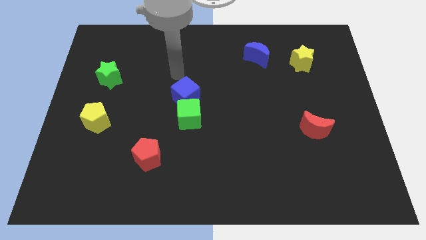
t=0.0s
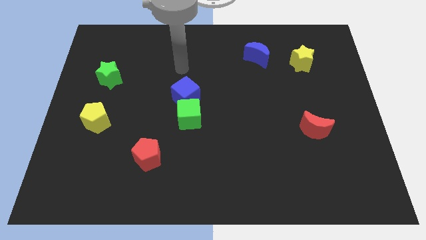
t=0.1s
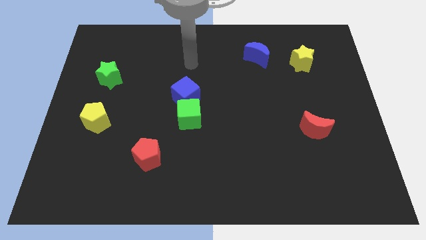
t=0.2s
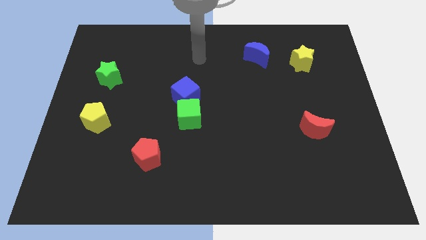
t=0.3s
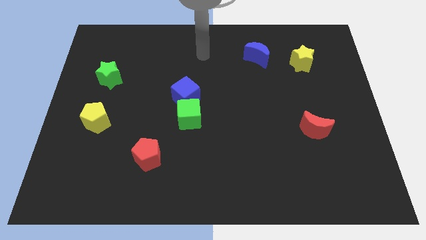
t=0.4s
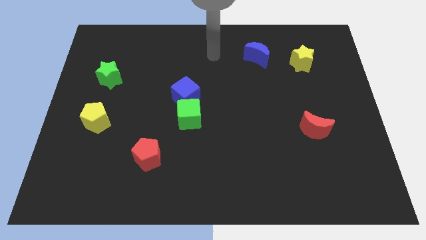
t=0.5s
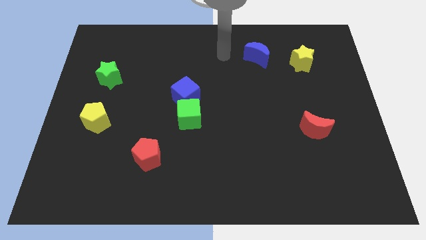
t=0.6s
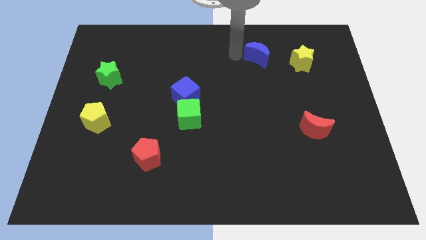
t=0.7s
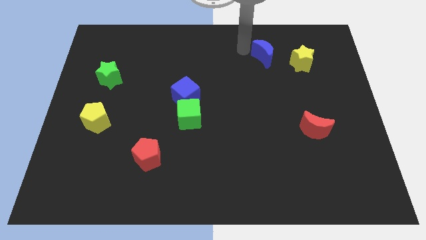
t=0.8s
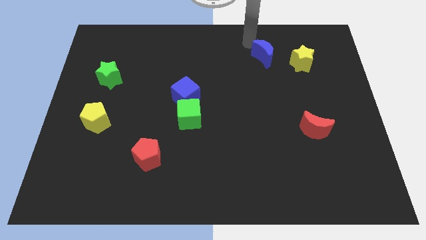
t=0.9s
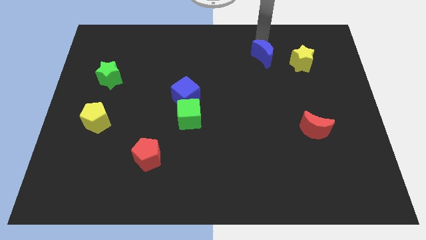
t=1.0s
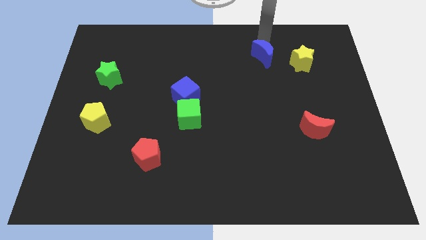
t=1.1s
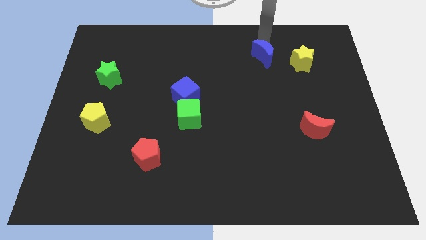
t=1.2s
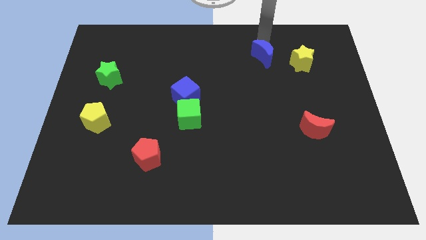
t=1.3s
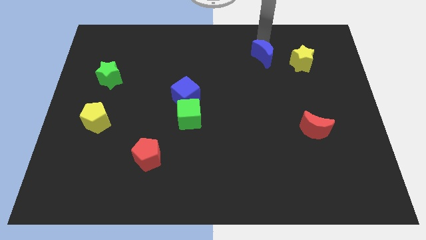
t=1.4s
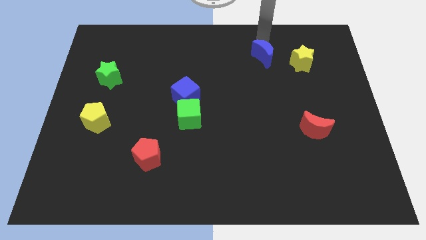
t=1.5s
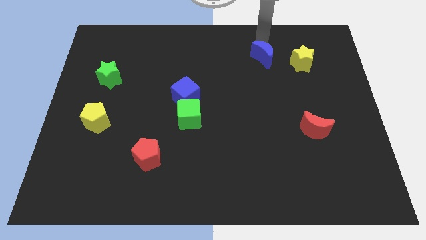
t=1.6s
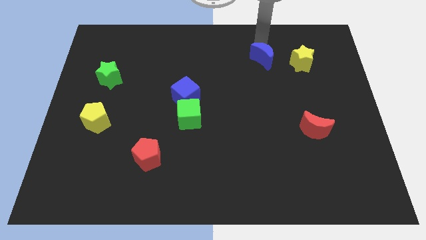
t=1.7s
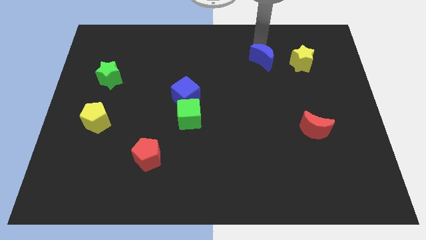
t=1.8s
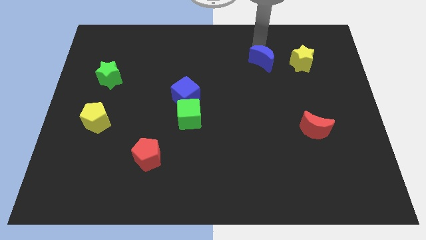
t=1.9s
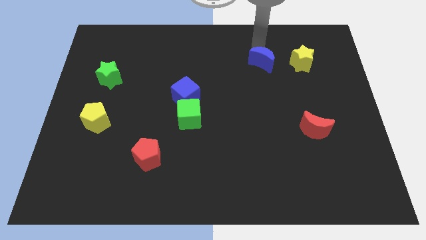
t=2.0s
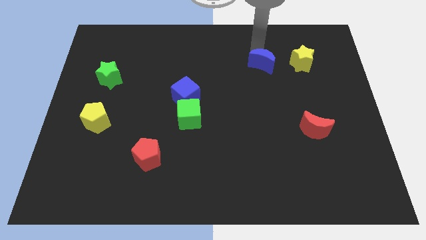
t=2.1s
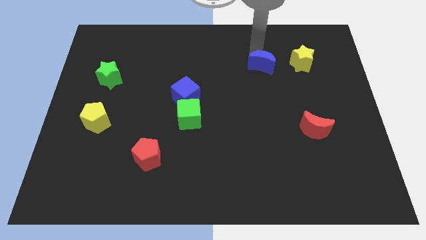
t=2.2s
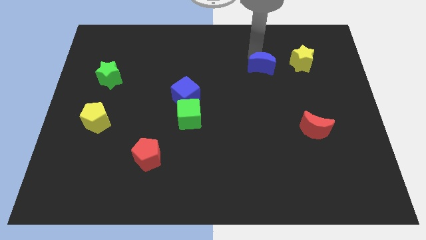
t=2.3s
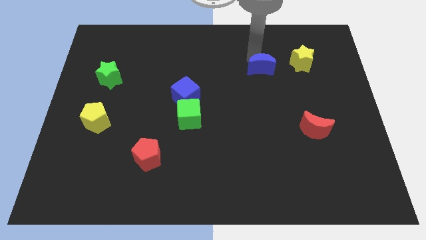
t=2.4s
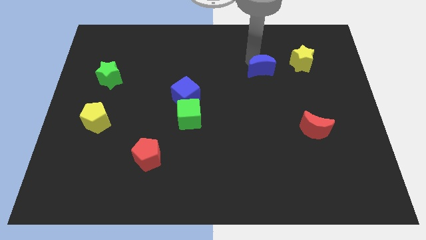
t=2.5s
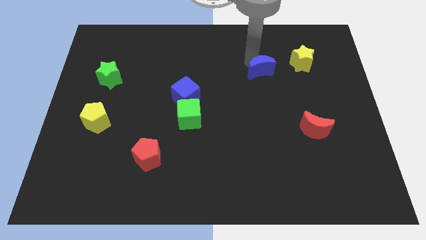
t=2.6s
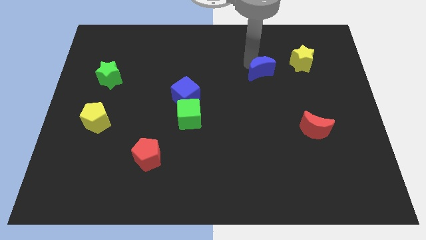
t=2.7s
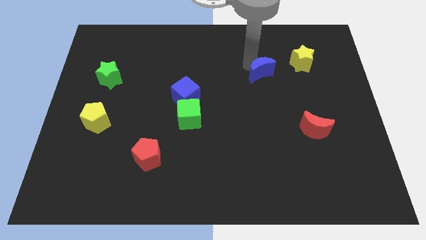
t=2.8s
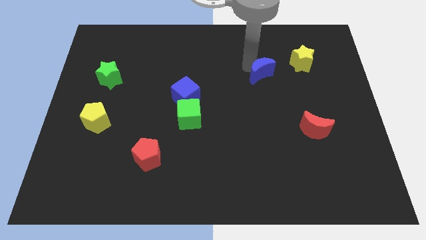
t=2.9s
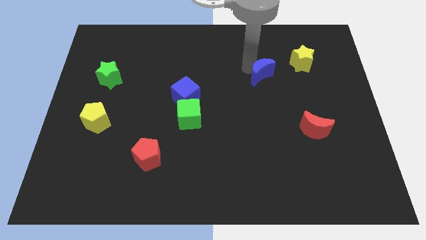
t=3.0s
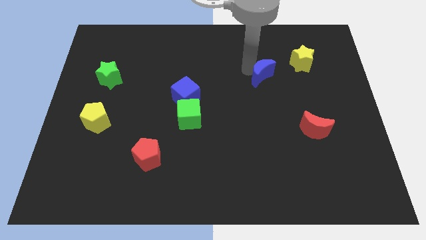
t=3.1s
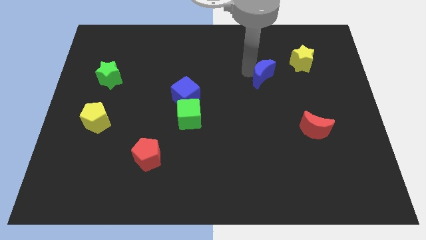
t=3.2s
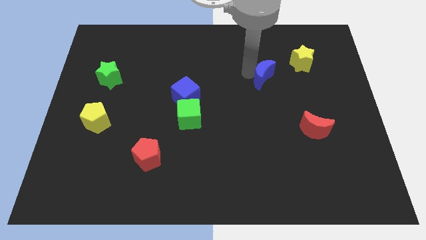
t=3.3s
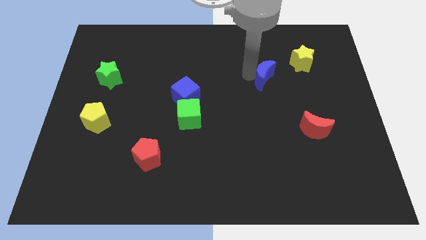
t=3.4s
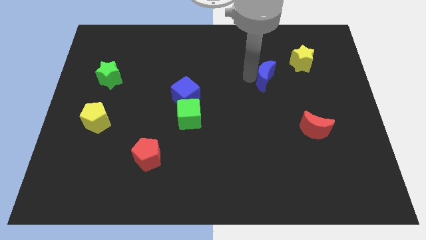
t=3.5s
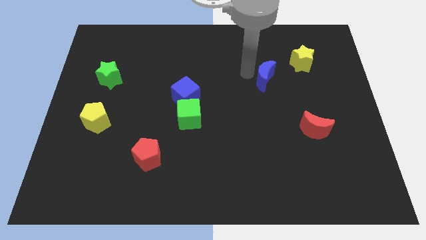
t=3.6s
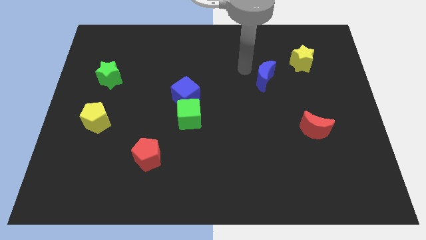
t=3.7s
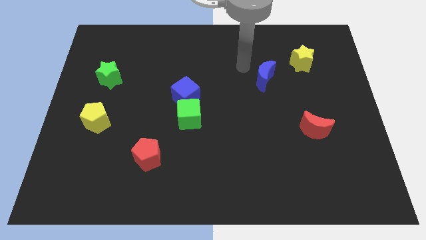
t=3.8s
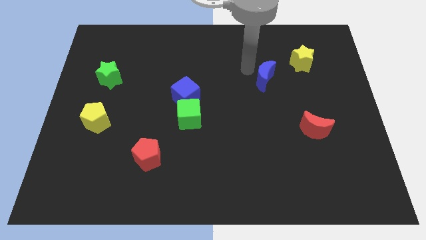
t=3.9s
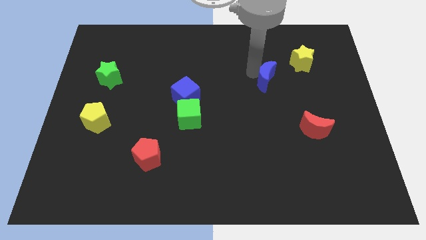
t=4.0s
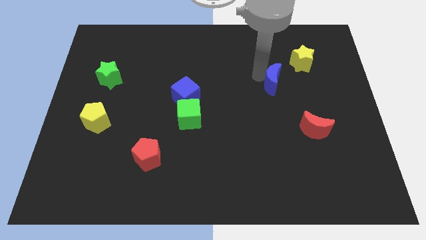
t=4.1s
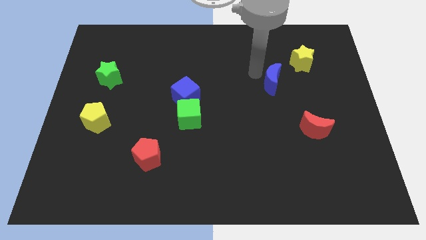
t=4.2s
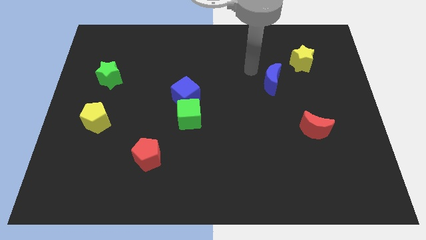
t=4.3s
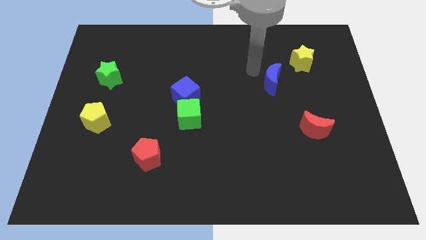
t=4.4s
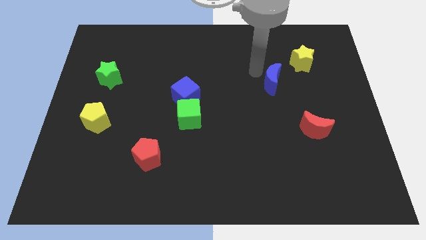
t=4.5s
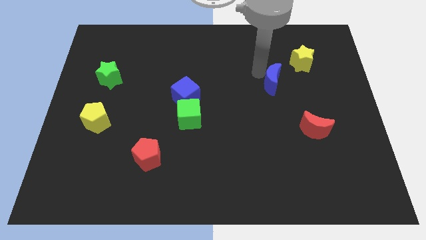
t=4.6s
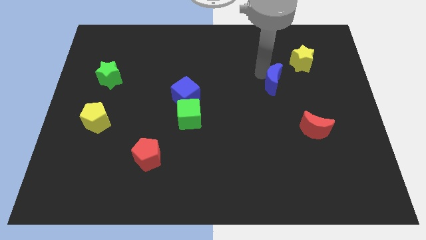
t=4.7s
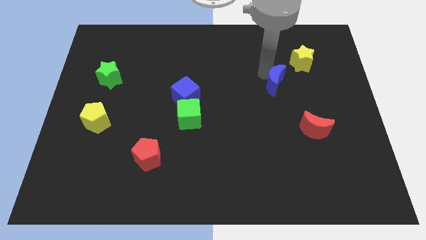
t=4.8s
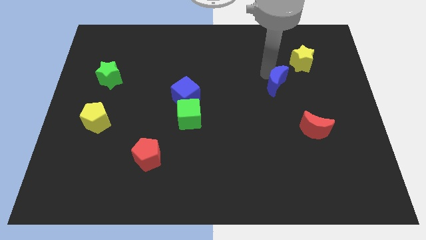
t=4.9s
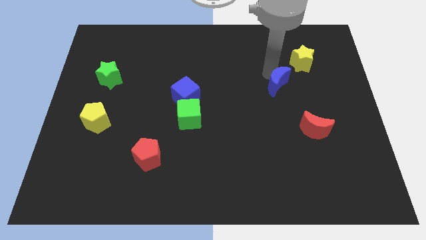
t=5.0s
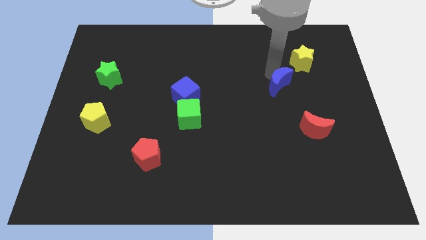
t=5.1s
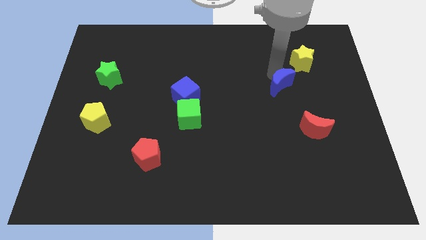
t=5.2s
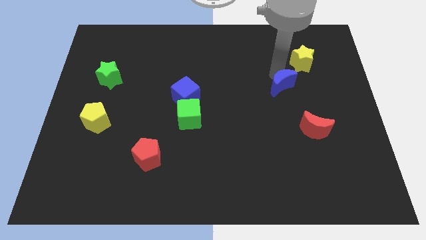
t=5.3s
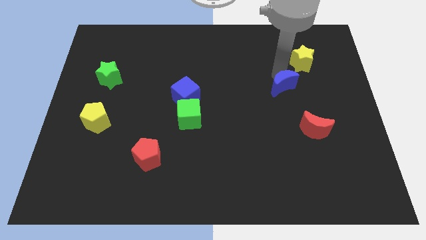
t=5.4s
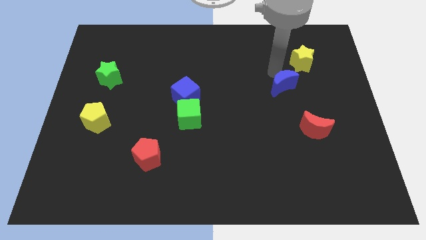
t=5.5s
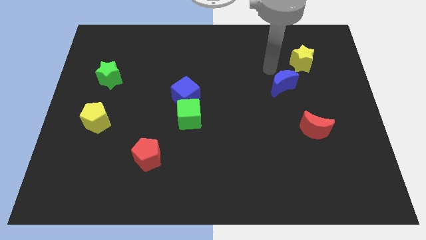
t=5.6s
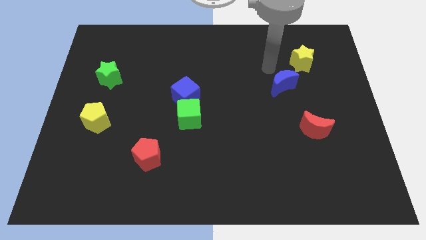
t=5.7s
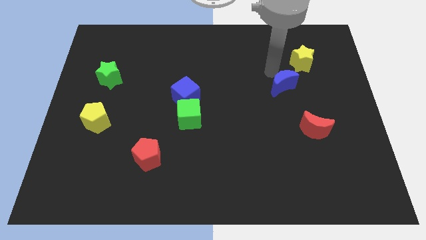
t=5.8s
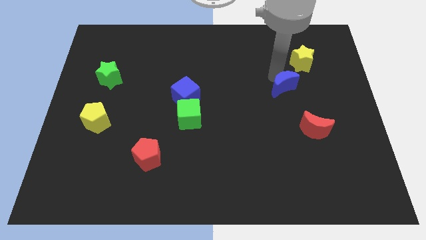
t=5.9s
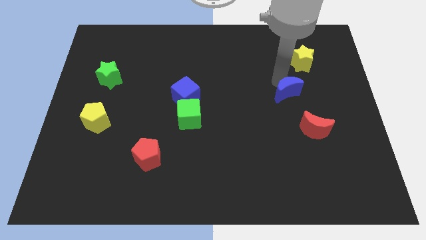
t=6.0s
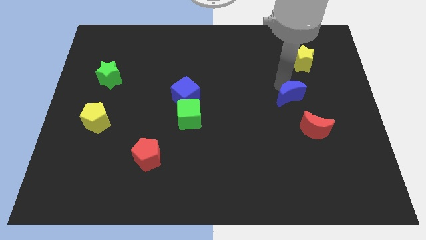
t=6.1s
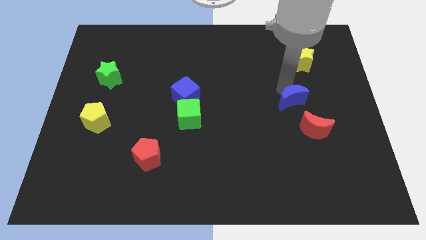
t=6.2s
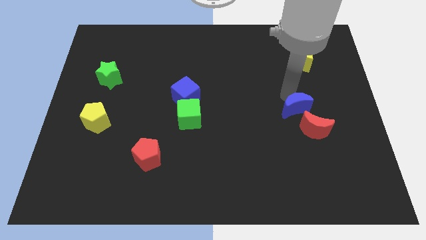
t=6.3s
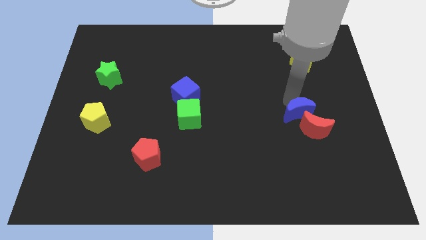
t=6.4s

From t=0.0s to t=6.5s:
put the blue moon close to the red moon

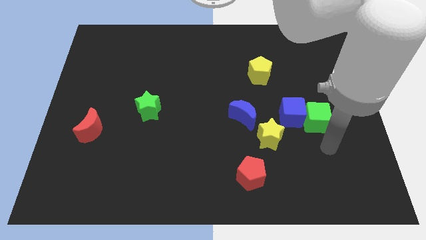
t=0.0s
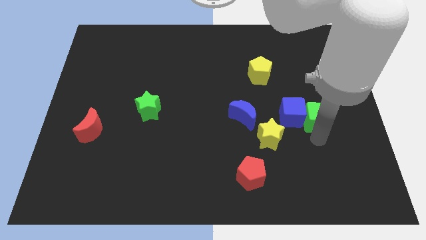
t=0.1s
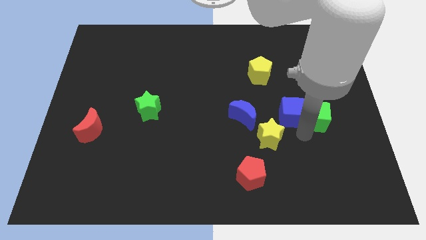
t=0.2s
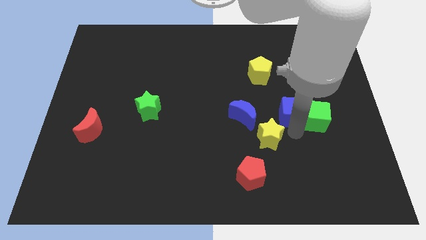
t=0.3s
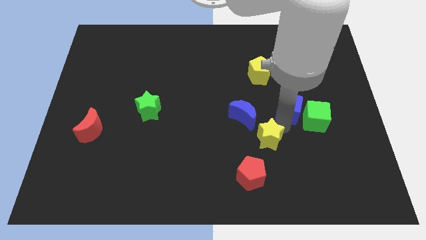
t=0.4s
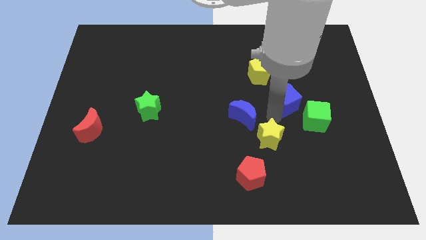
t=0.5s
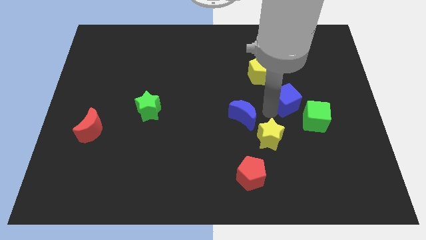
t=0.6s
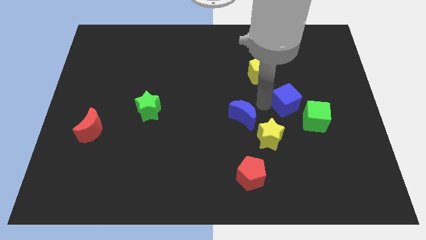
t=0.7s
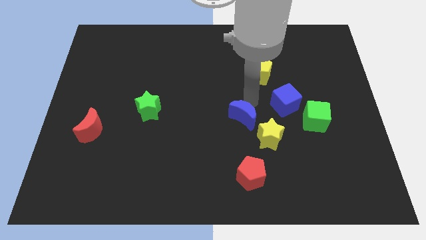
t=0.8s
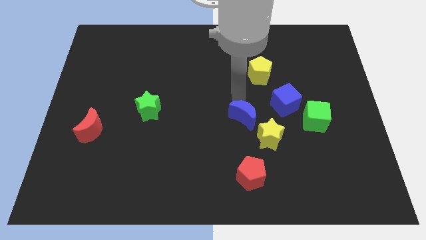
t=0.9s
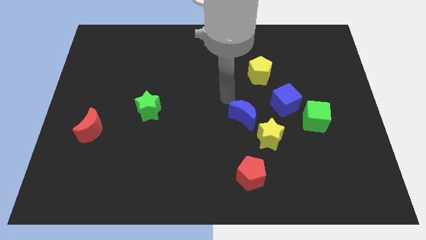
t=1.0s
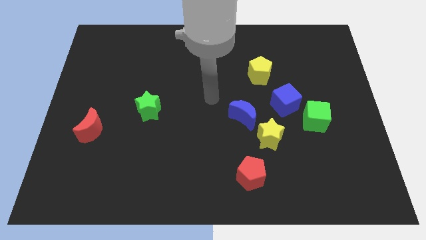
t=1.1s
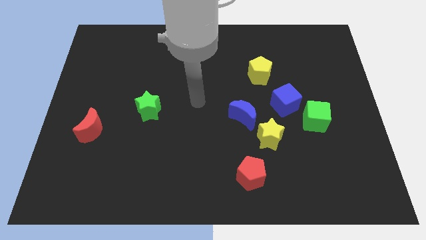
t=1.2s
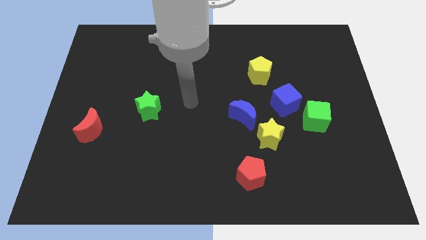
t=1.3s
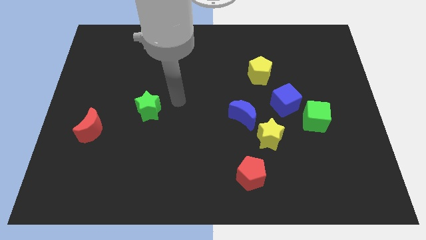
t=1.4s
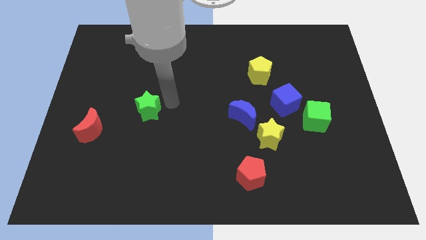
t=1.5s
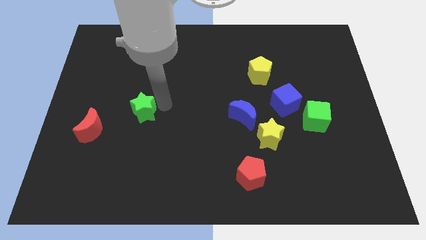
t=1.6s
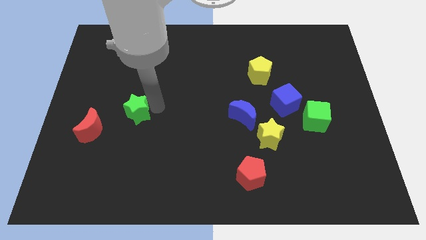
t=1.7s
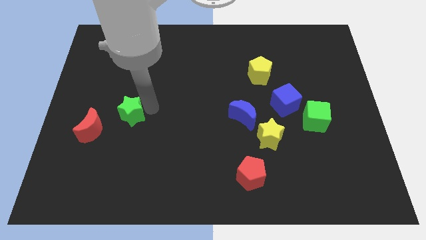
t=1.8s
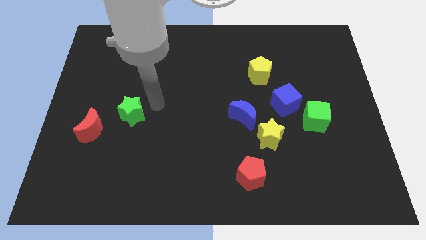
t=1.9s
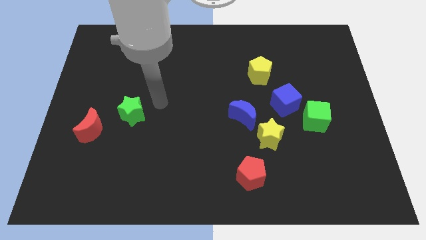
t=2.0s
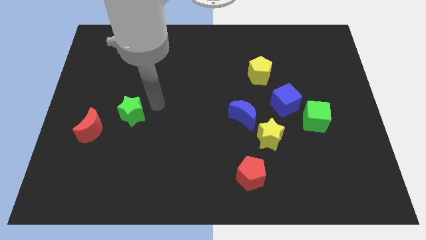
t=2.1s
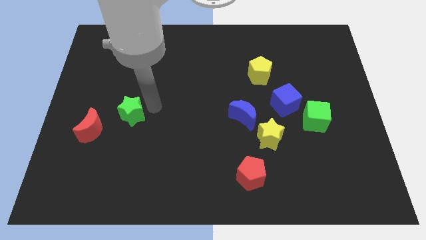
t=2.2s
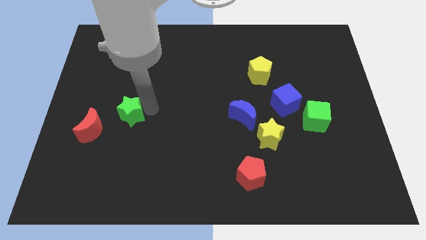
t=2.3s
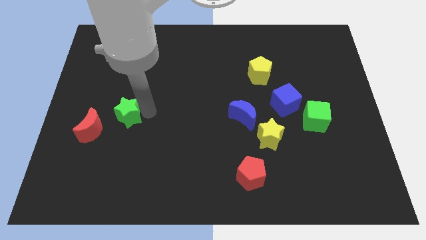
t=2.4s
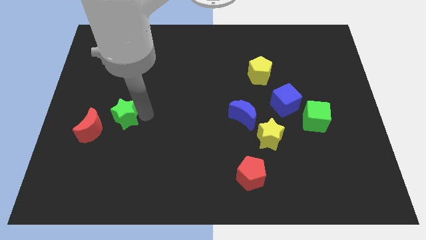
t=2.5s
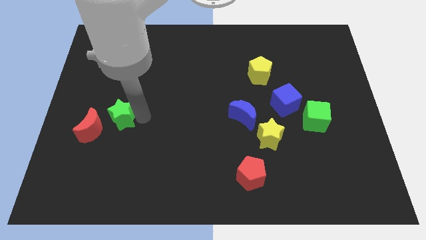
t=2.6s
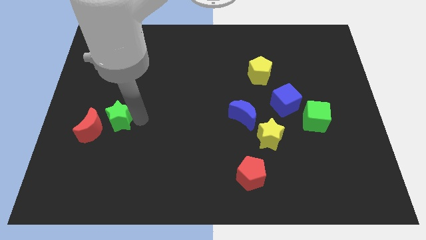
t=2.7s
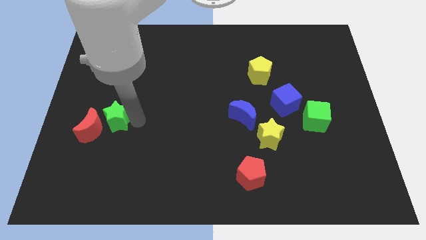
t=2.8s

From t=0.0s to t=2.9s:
push the green star close to the red moon
